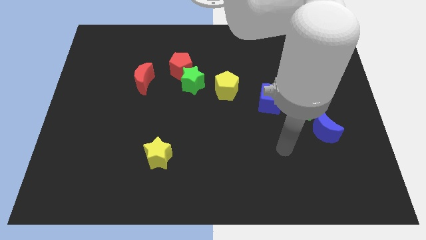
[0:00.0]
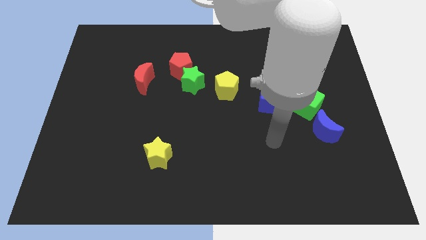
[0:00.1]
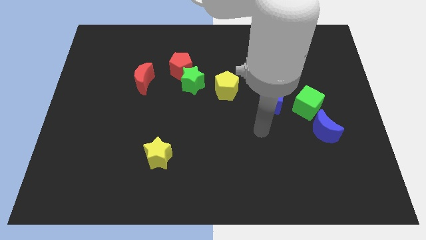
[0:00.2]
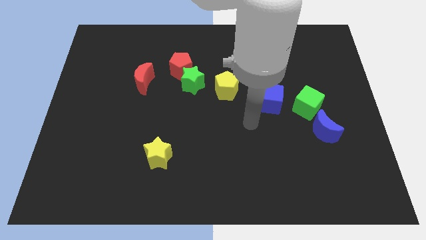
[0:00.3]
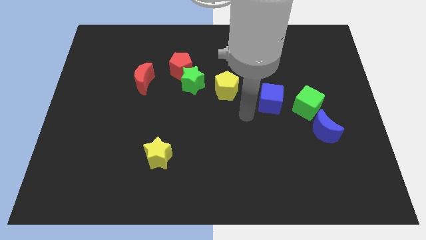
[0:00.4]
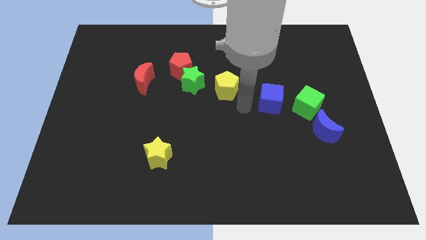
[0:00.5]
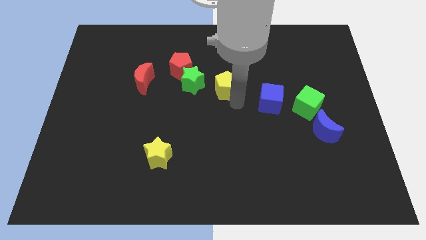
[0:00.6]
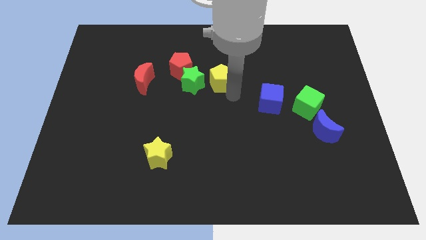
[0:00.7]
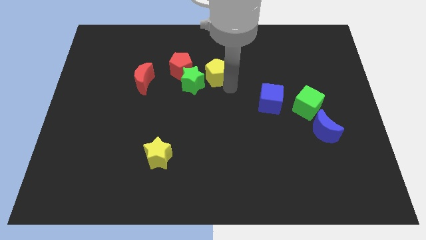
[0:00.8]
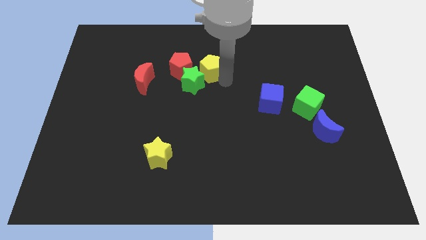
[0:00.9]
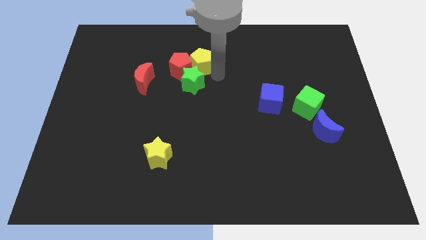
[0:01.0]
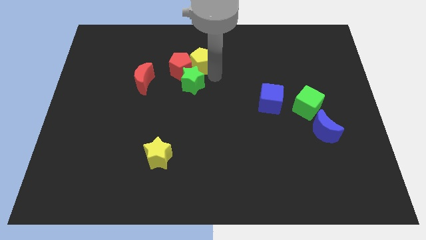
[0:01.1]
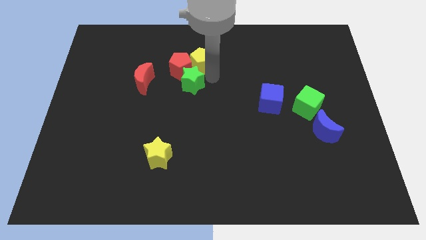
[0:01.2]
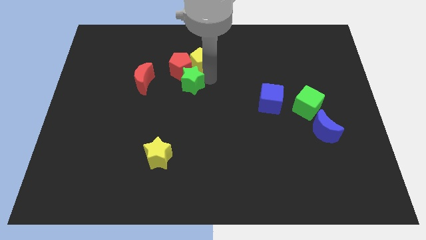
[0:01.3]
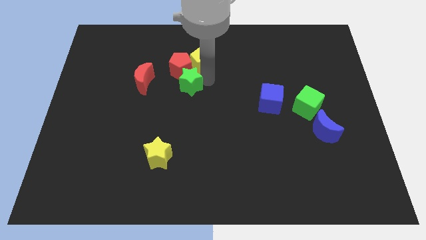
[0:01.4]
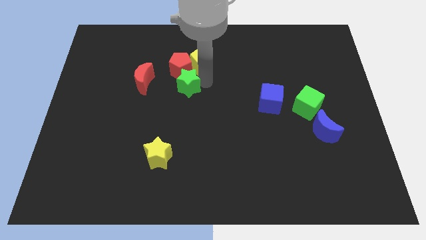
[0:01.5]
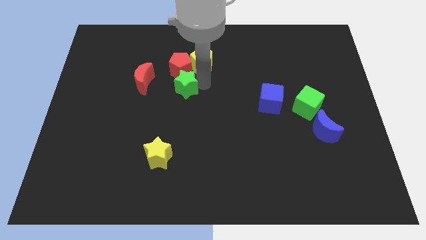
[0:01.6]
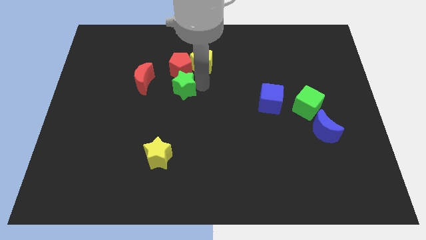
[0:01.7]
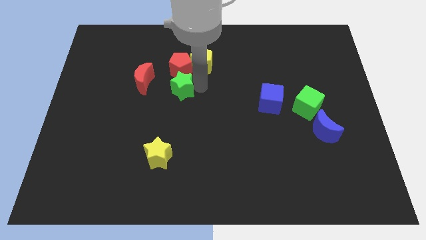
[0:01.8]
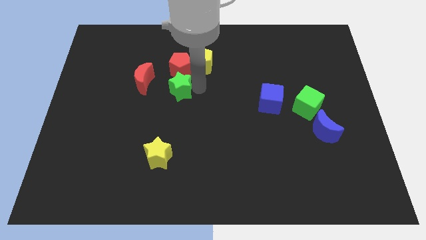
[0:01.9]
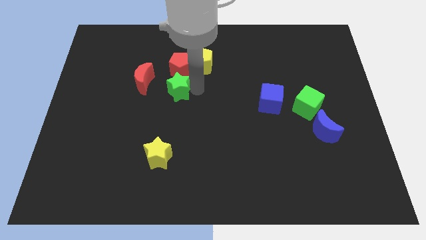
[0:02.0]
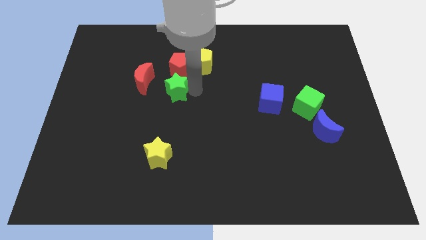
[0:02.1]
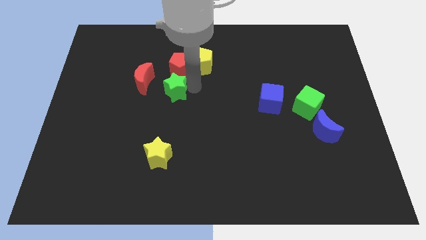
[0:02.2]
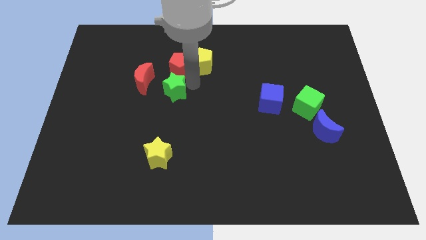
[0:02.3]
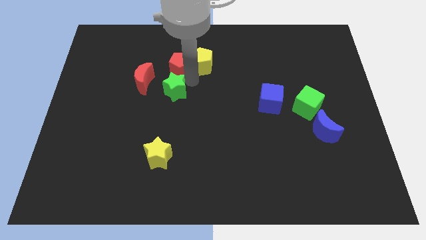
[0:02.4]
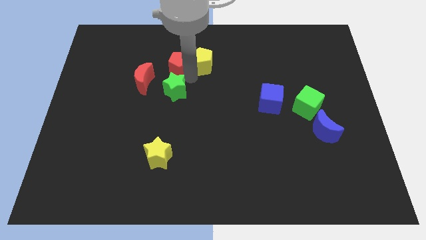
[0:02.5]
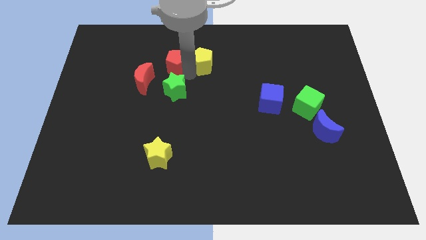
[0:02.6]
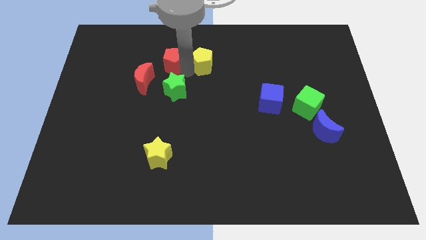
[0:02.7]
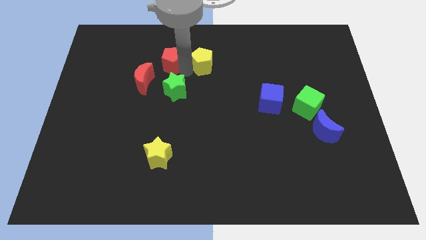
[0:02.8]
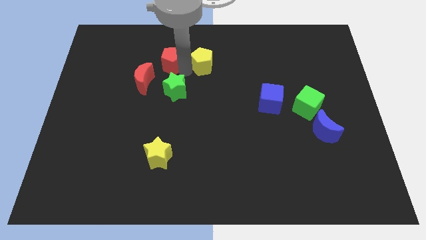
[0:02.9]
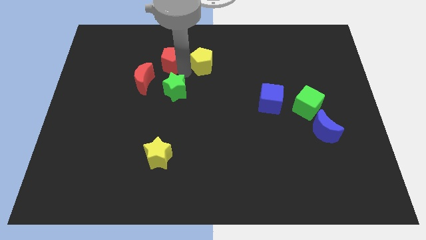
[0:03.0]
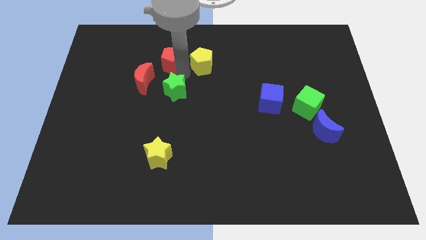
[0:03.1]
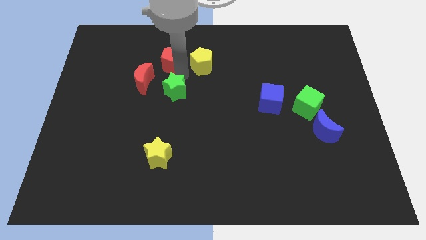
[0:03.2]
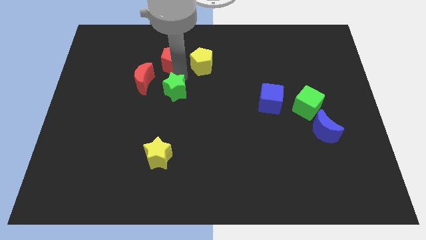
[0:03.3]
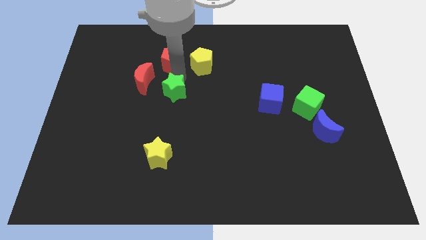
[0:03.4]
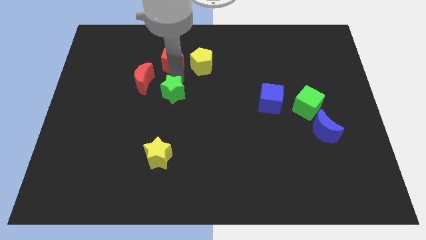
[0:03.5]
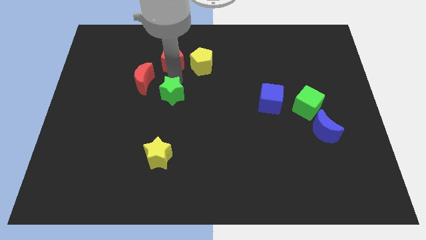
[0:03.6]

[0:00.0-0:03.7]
pull the green star apart from the red pentagon and yellow pentagon

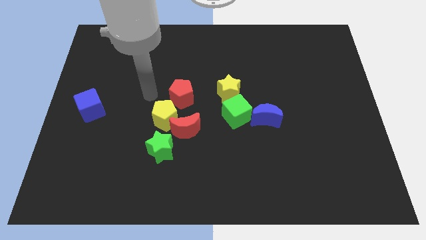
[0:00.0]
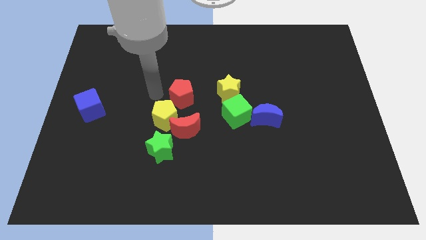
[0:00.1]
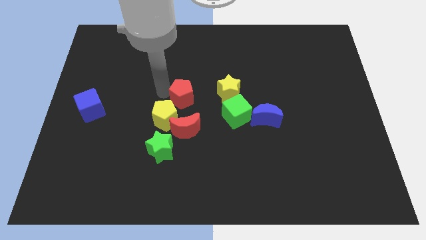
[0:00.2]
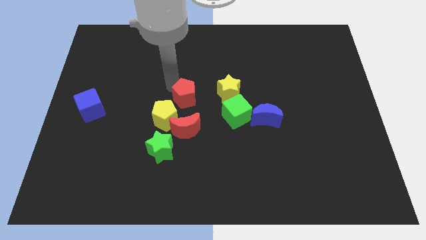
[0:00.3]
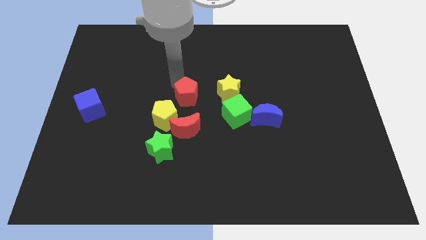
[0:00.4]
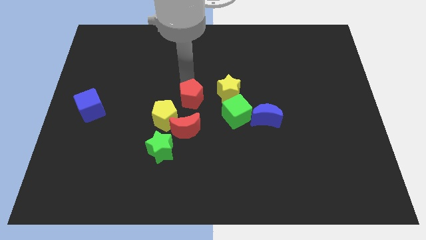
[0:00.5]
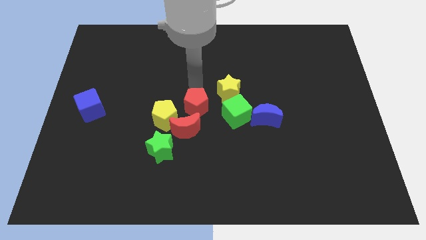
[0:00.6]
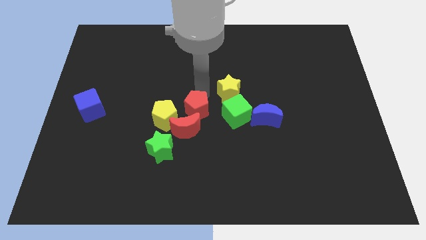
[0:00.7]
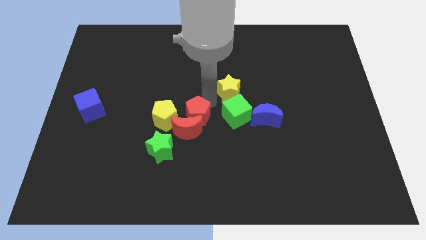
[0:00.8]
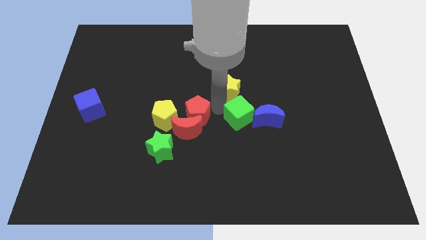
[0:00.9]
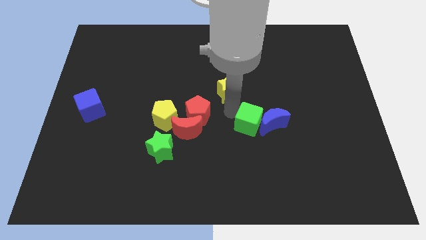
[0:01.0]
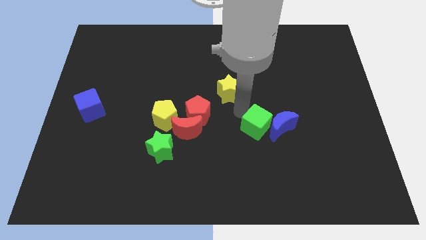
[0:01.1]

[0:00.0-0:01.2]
separate the yellow star from the green cube

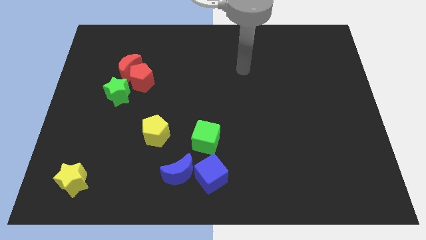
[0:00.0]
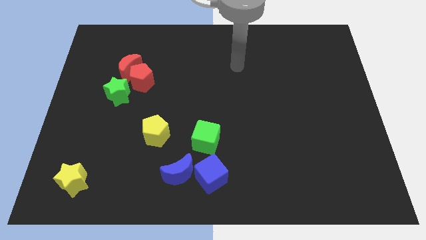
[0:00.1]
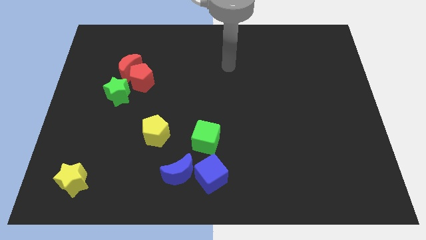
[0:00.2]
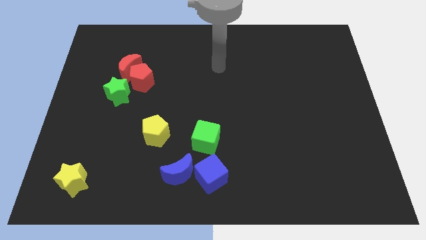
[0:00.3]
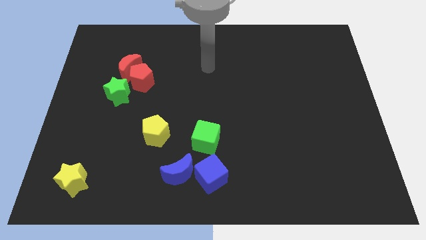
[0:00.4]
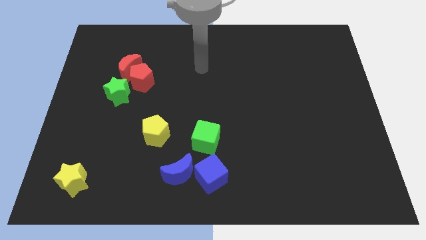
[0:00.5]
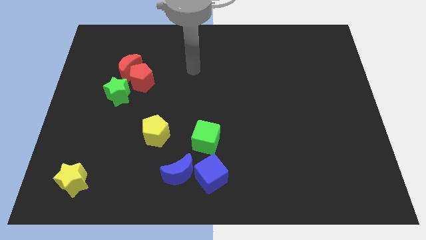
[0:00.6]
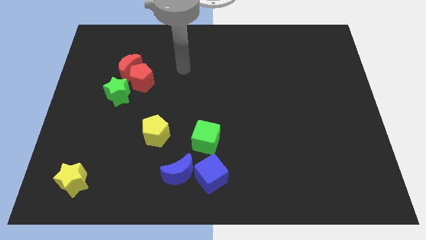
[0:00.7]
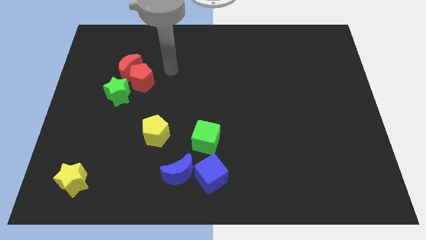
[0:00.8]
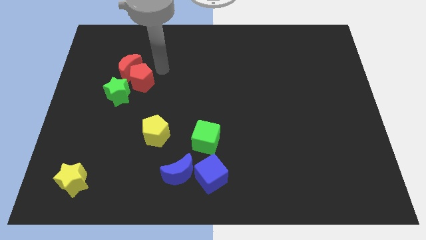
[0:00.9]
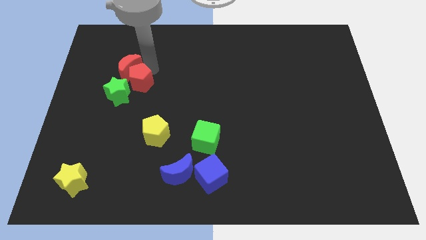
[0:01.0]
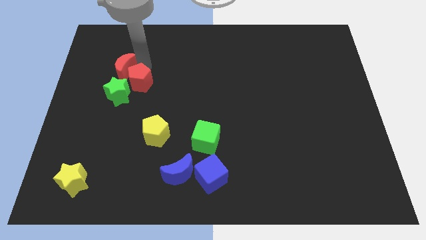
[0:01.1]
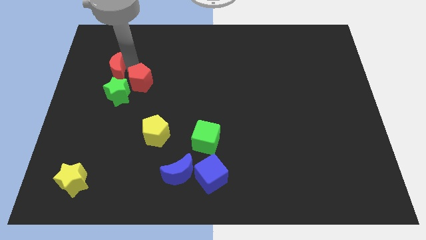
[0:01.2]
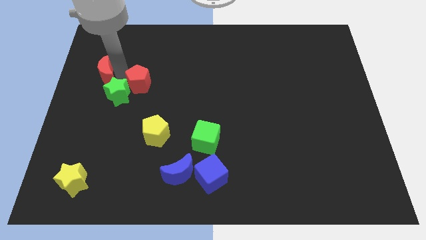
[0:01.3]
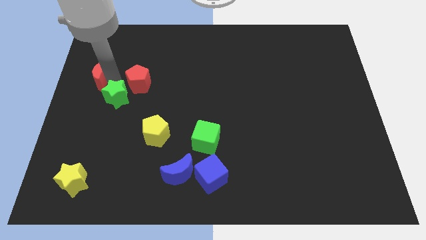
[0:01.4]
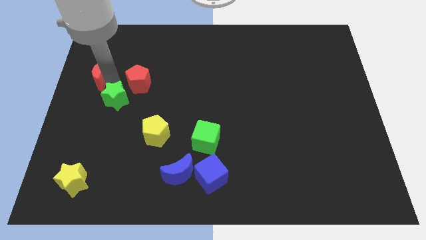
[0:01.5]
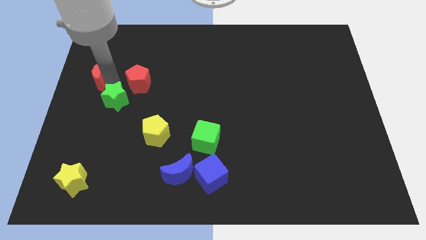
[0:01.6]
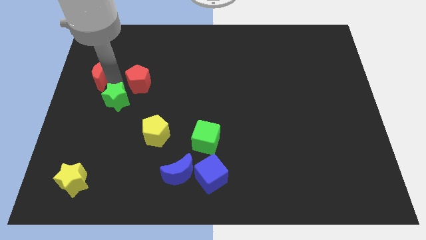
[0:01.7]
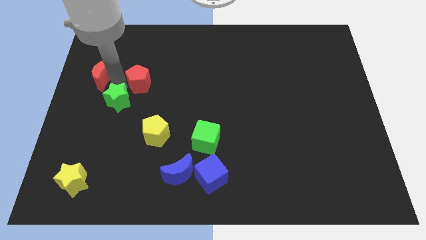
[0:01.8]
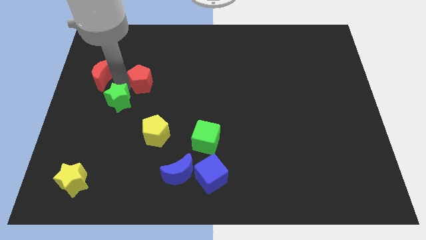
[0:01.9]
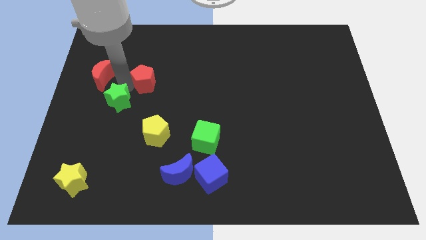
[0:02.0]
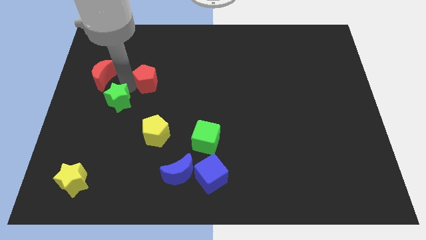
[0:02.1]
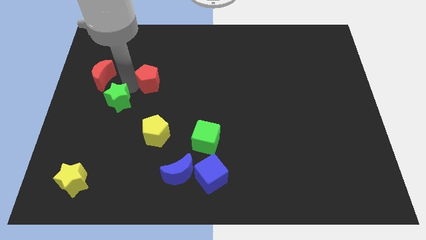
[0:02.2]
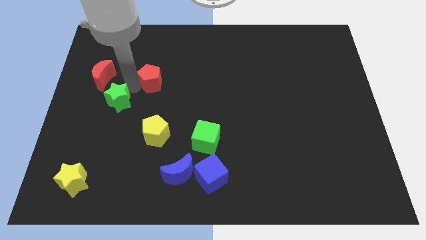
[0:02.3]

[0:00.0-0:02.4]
move the red pentagon away from the red moon and green star

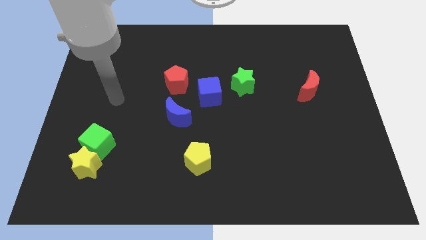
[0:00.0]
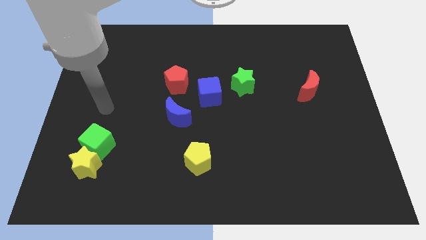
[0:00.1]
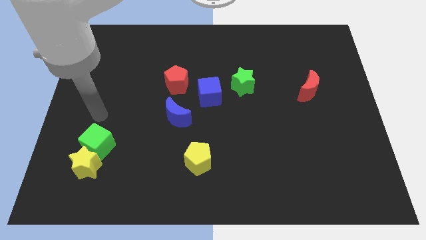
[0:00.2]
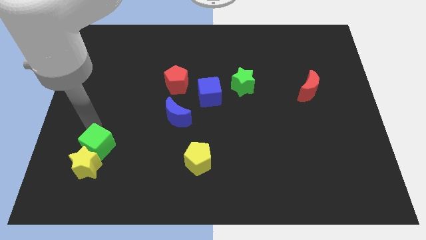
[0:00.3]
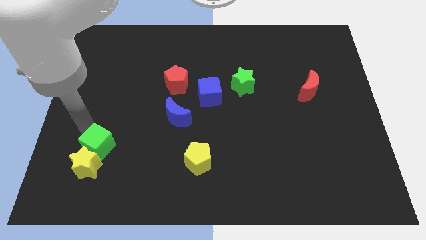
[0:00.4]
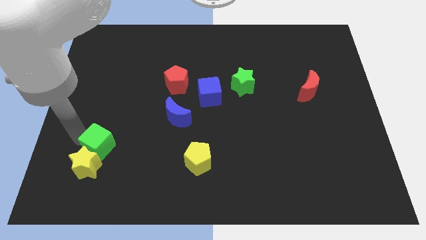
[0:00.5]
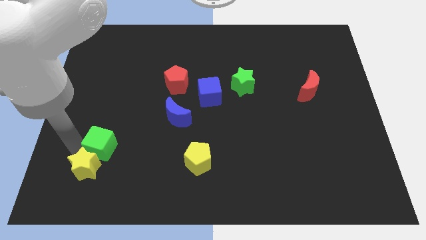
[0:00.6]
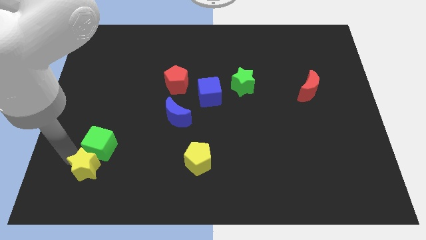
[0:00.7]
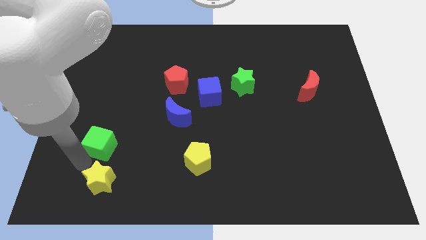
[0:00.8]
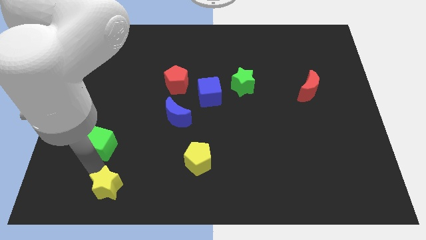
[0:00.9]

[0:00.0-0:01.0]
move the green cube away from the yellow star

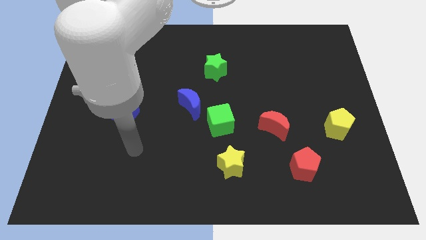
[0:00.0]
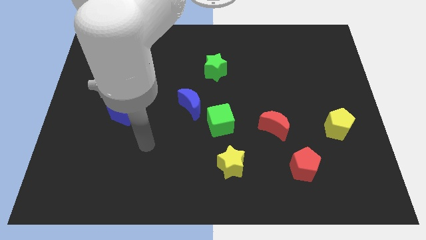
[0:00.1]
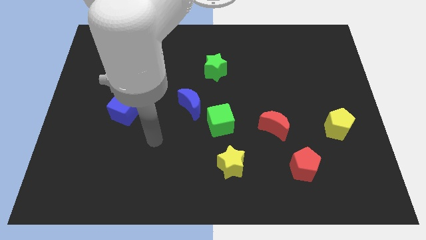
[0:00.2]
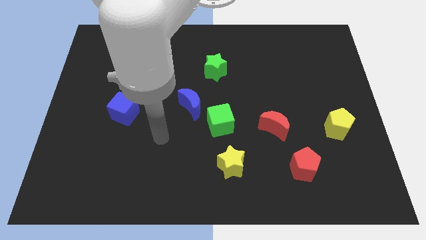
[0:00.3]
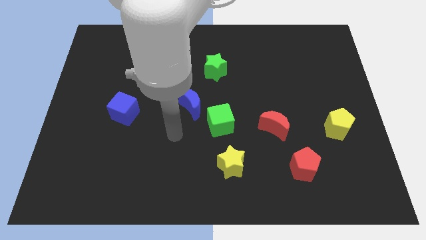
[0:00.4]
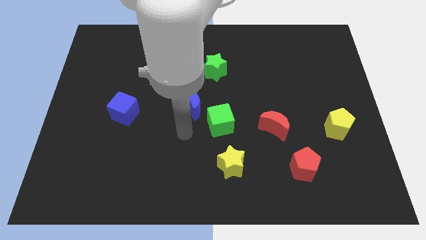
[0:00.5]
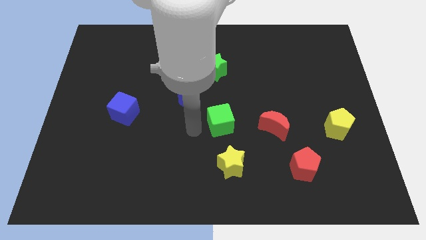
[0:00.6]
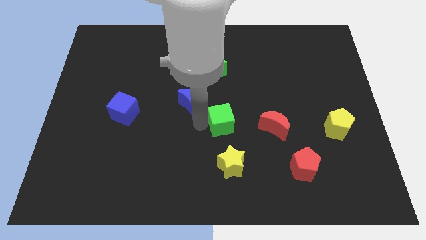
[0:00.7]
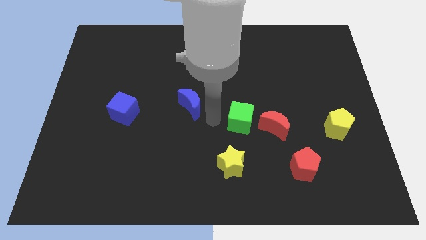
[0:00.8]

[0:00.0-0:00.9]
pull the blue moon apart from the green cube
